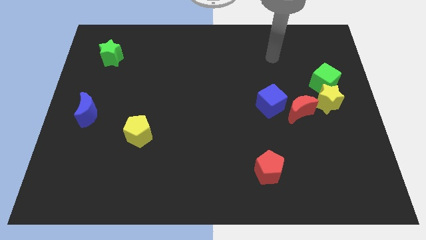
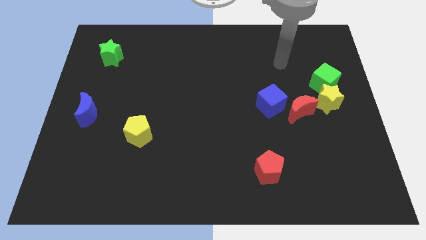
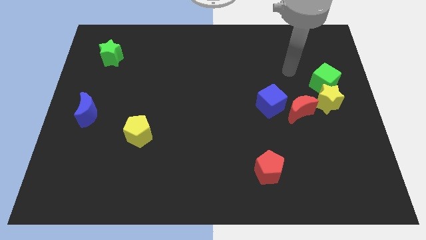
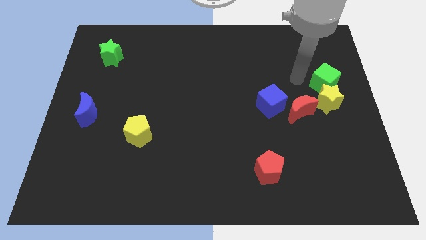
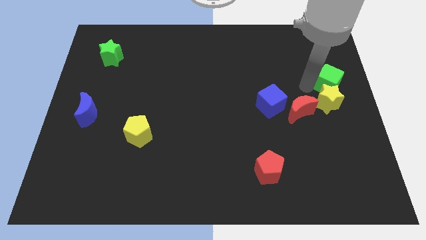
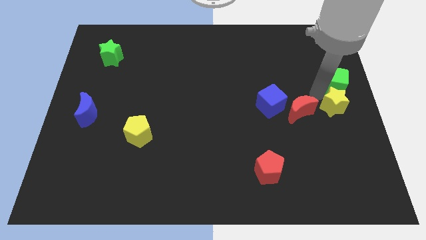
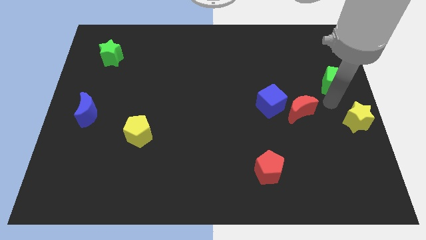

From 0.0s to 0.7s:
separate the green cube from the yellow star

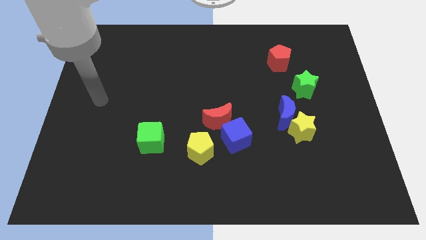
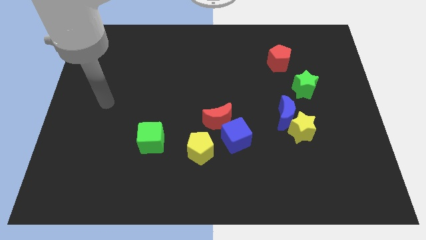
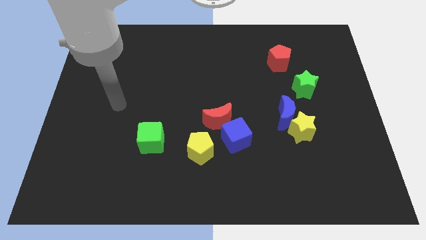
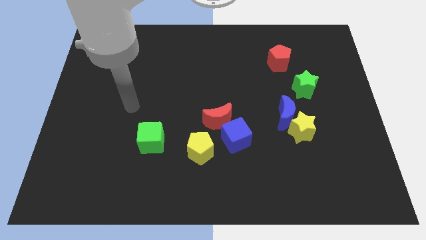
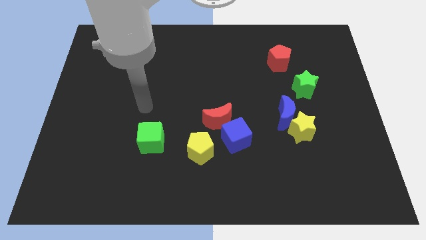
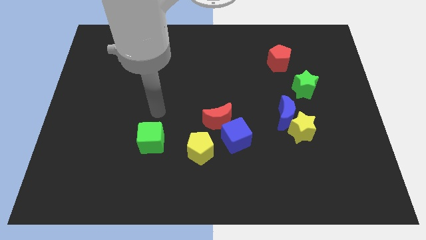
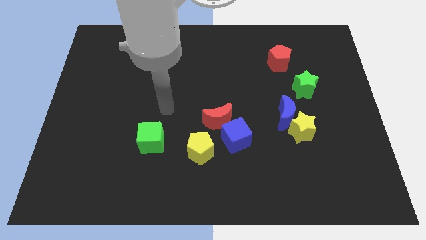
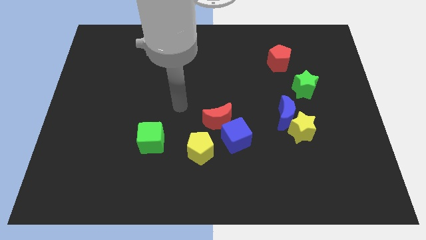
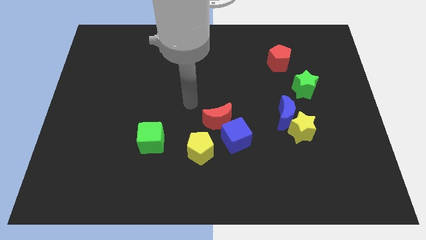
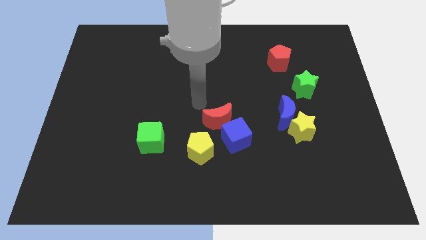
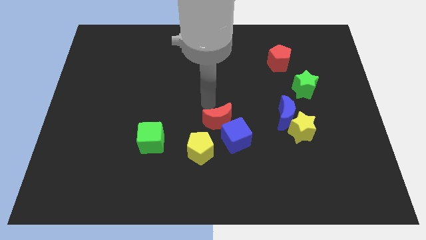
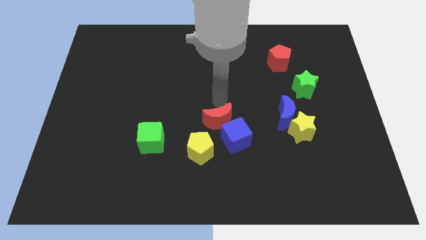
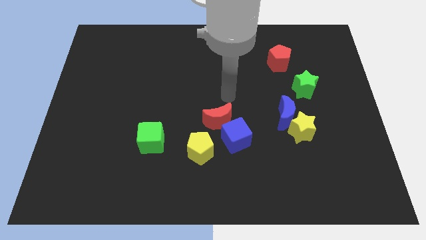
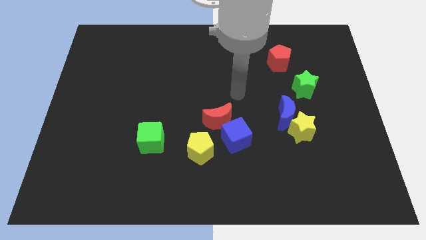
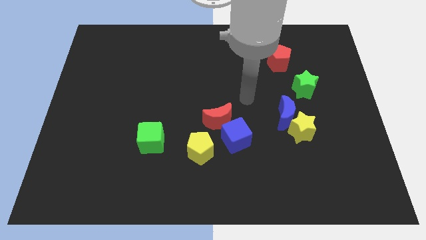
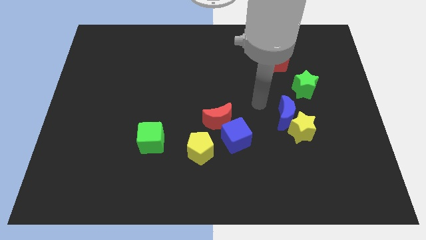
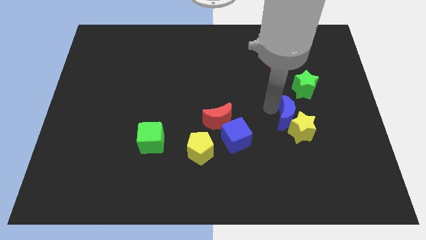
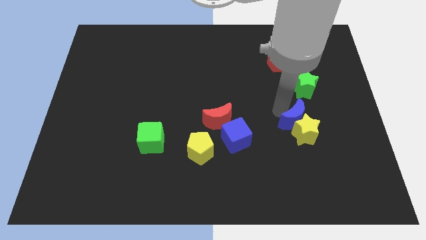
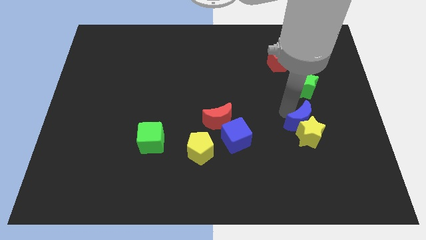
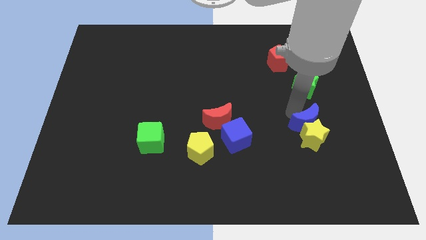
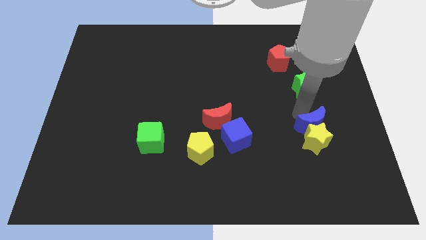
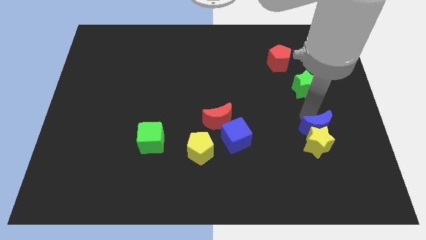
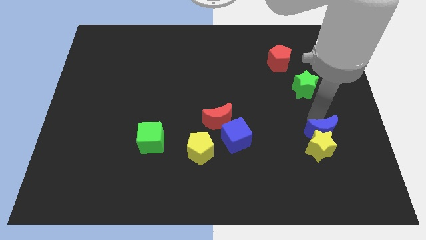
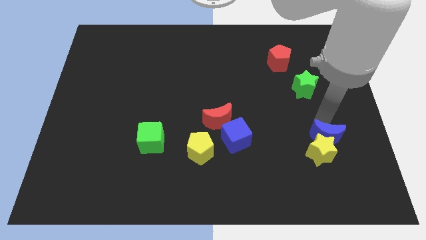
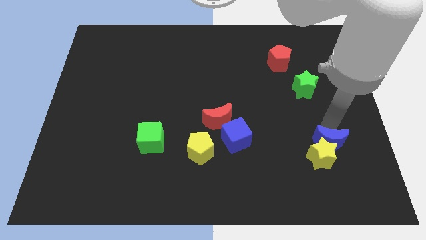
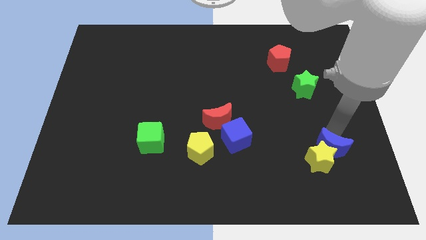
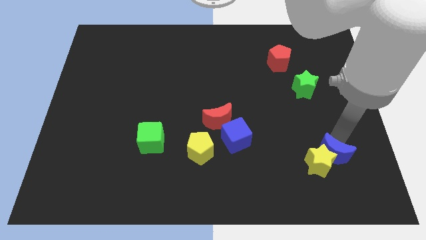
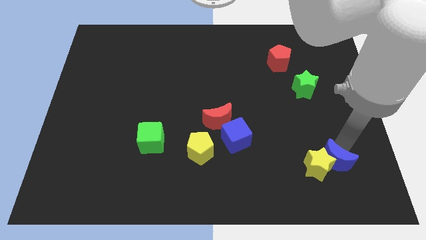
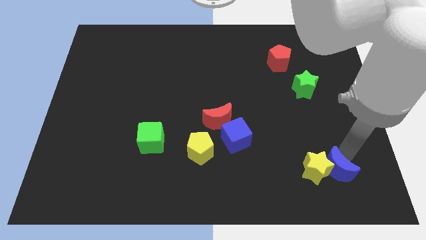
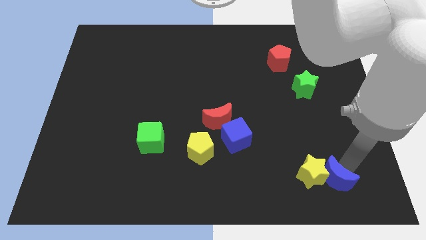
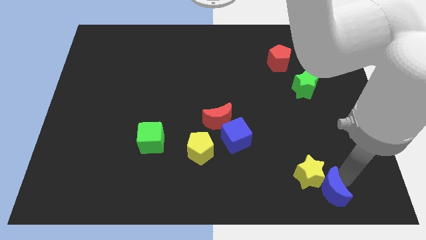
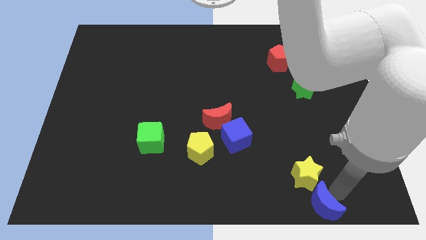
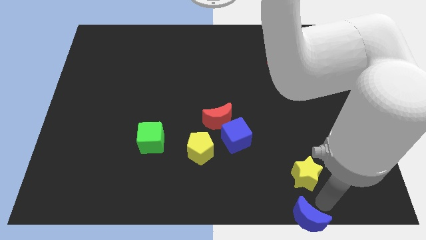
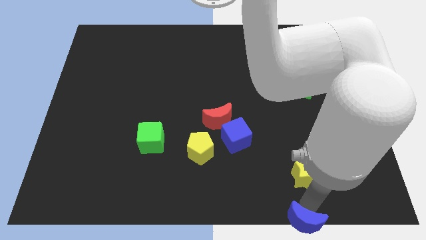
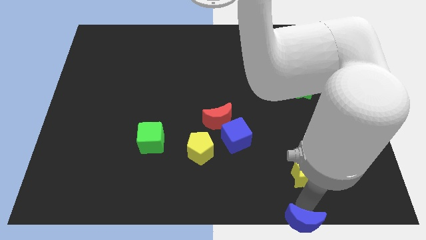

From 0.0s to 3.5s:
separate the yellow star from the blue moon

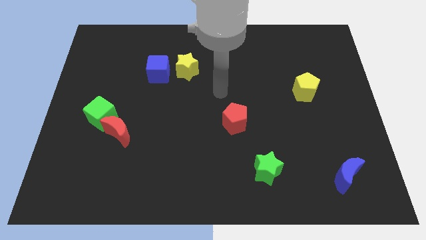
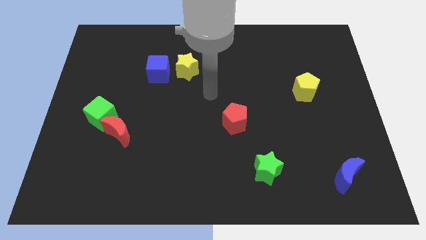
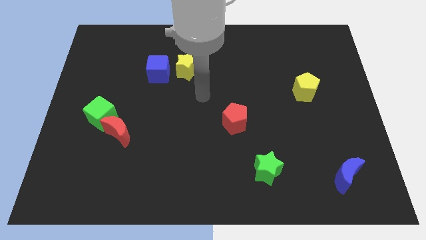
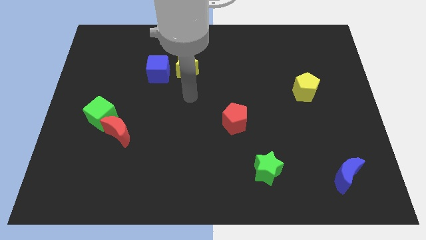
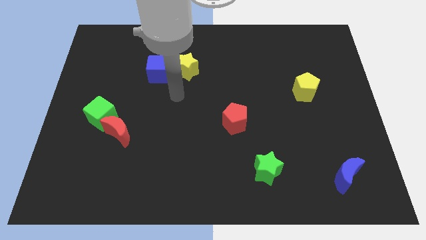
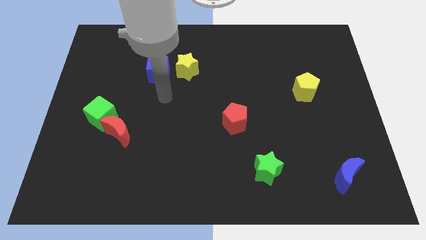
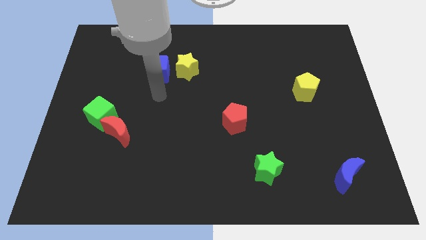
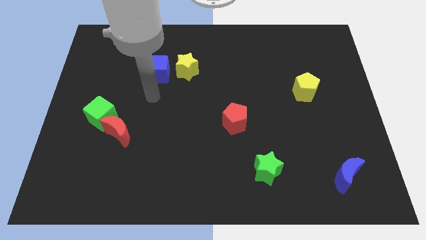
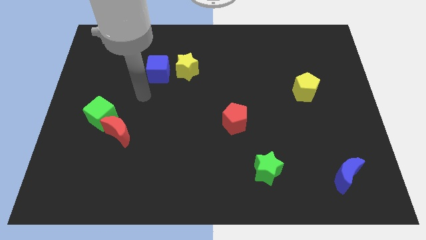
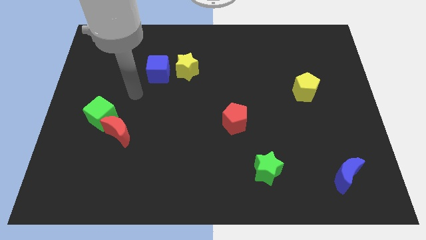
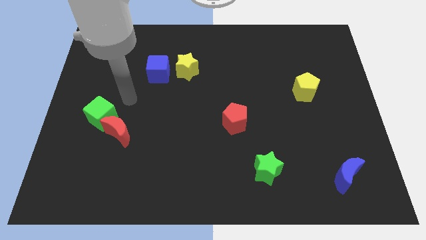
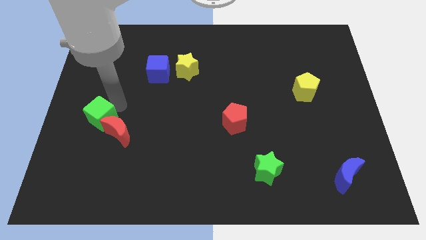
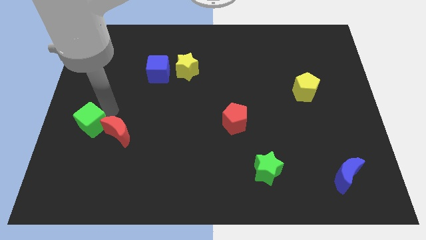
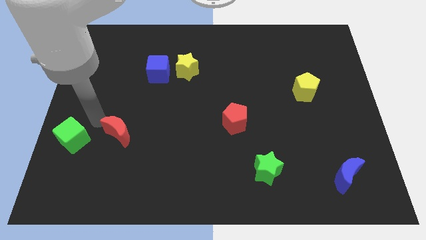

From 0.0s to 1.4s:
separate the red moon from the green cube

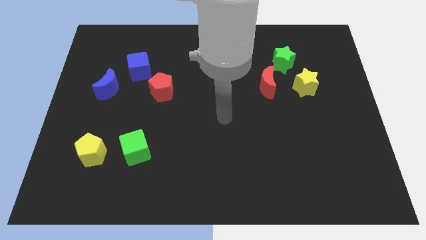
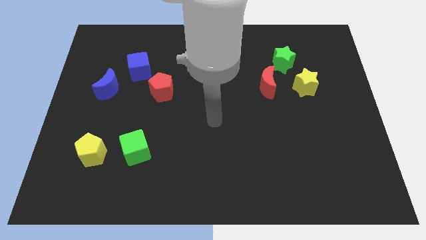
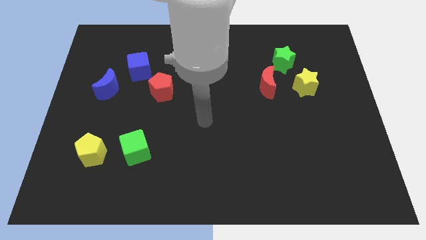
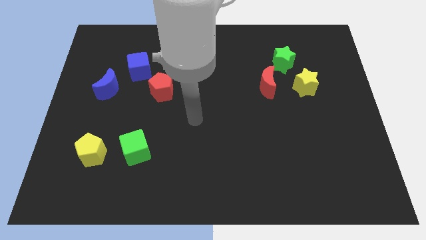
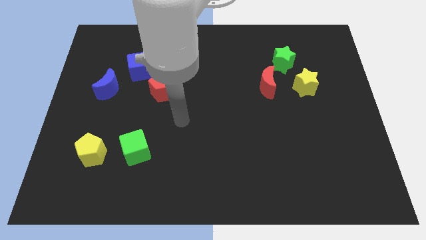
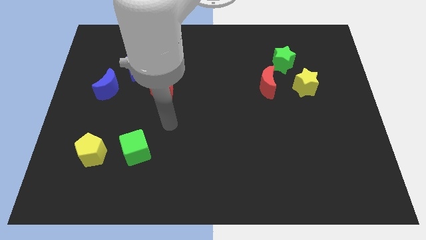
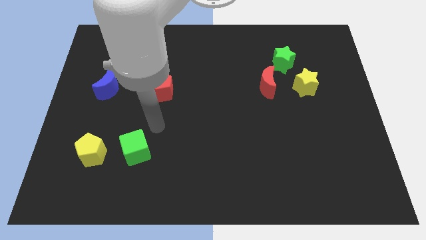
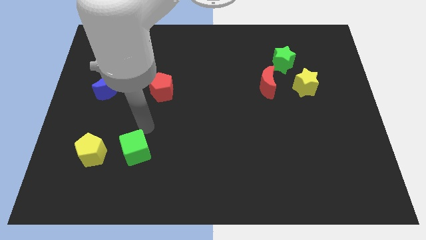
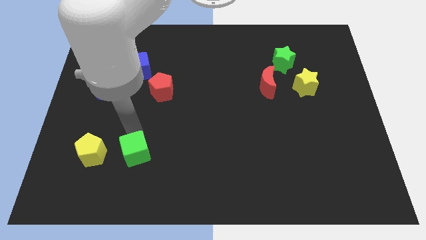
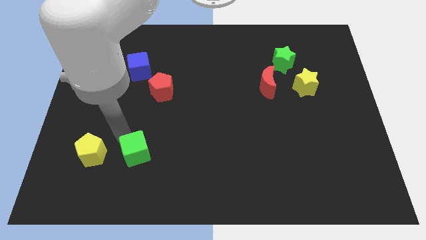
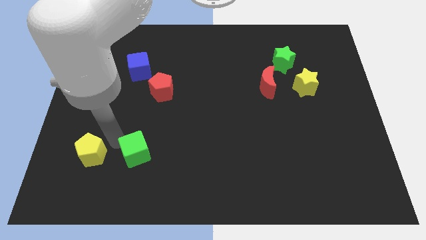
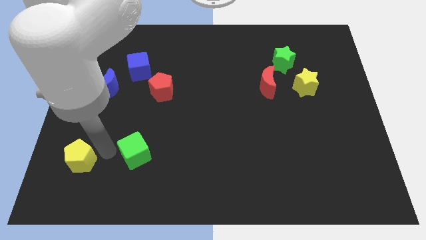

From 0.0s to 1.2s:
separate the green cube from the yellow pentagon

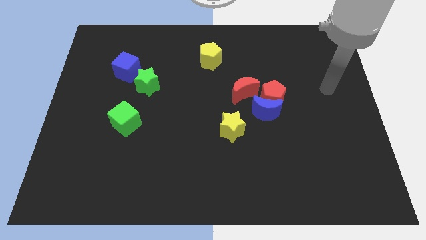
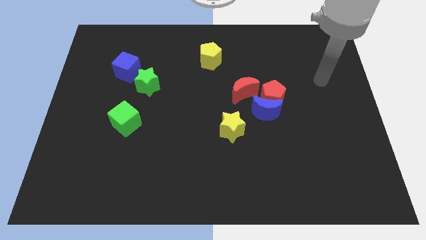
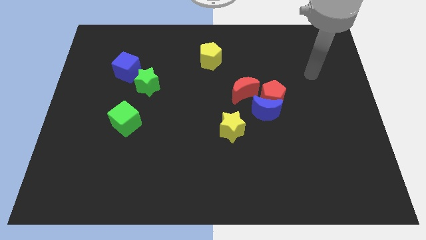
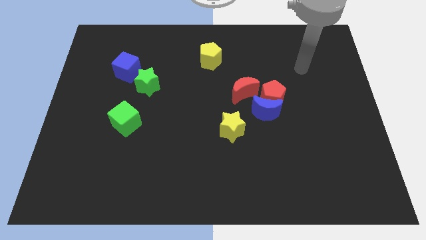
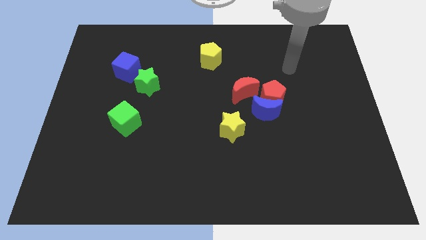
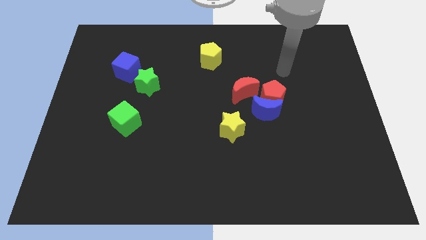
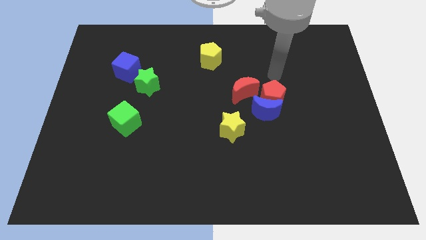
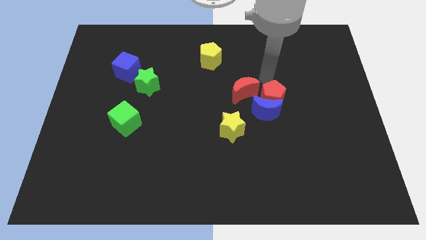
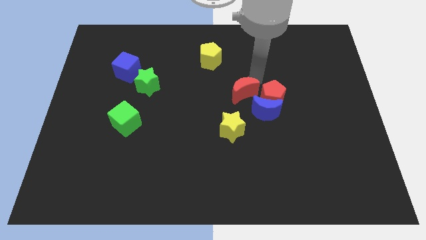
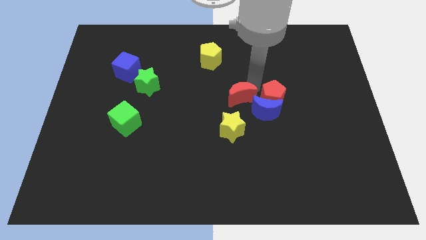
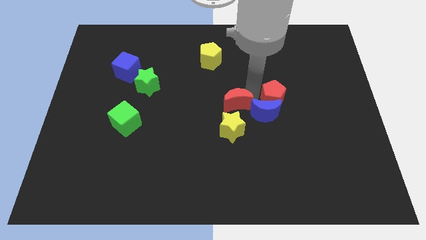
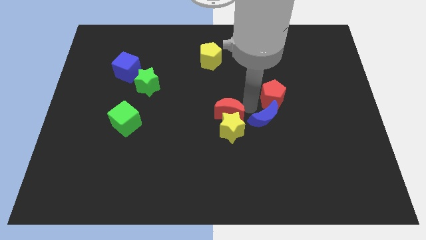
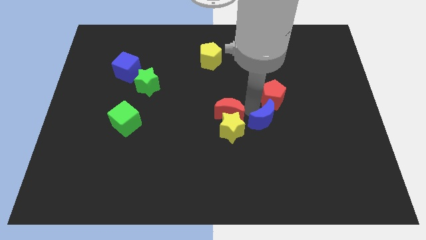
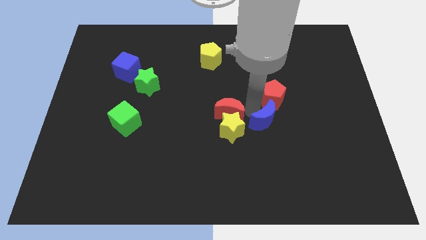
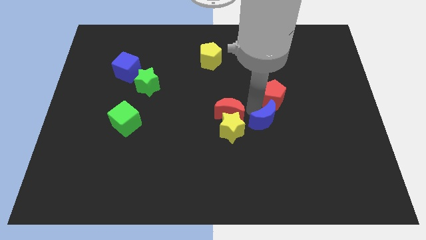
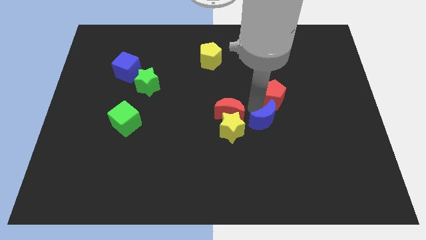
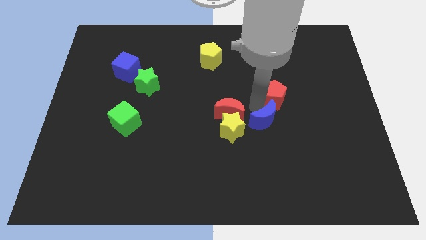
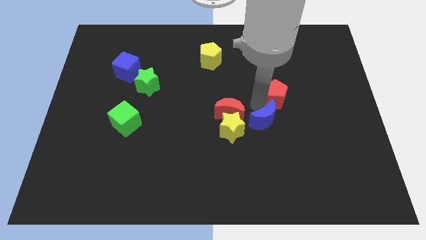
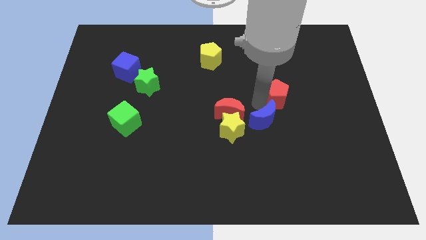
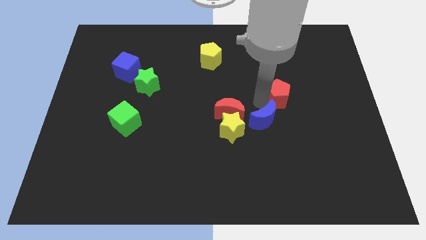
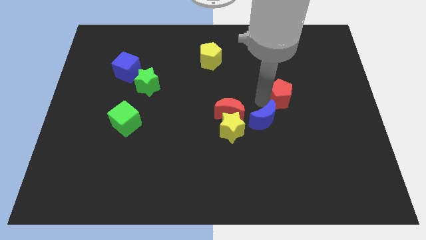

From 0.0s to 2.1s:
pull the red pentagon apart from the blue moon and red moon

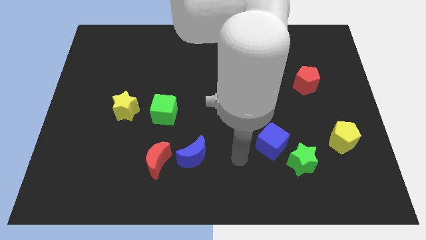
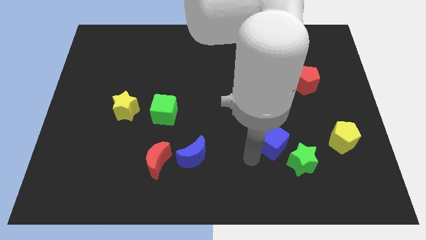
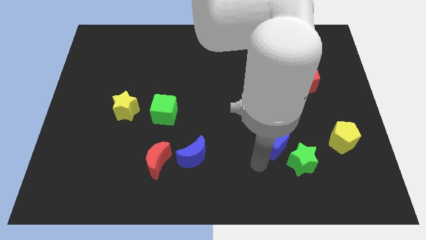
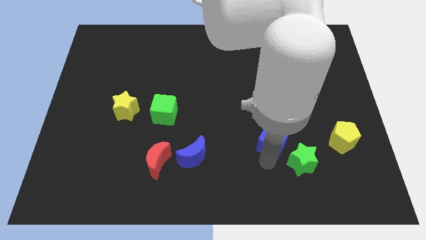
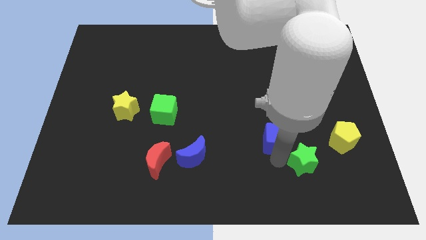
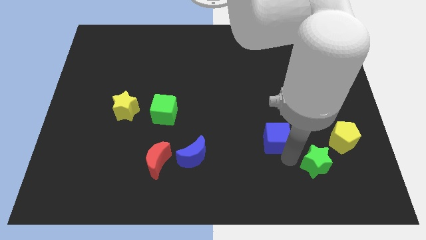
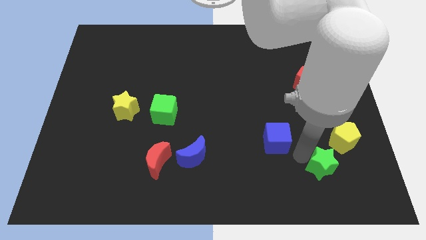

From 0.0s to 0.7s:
separate the blue cube from the green star
